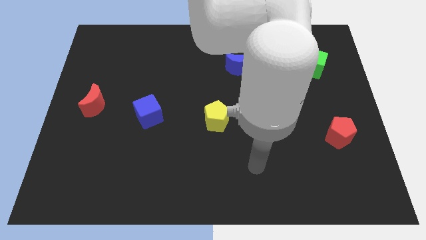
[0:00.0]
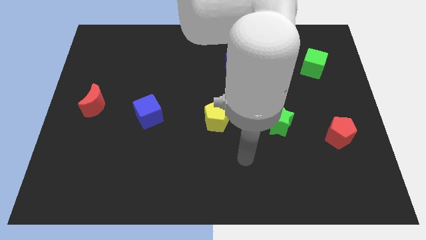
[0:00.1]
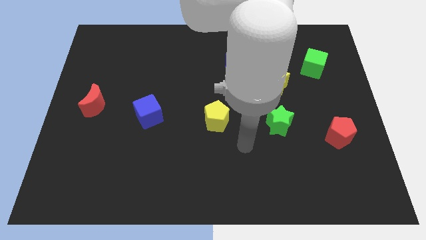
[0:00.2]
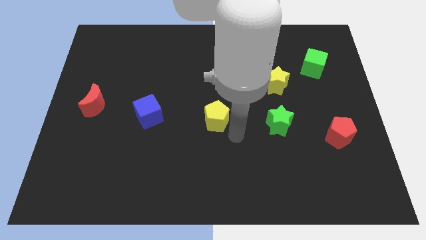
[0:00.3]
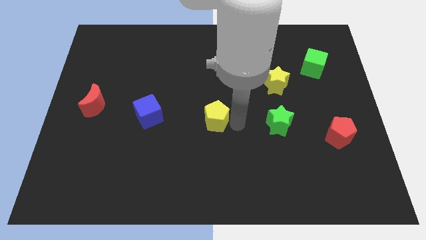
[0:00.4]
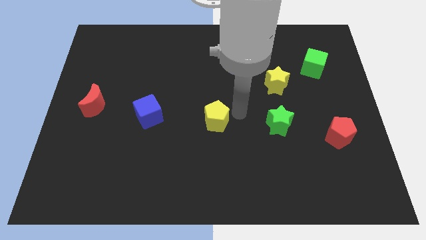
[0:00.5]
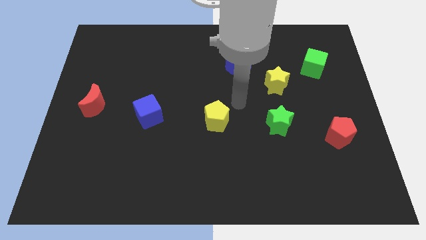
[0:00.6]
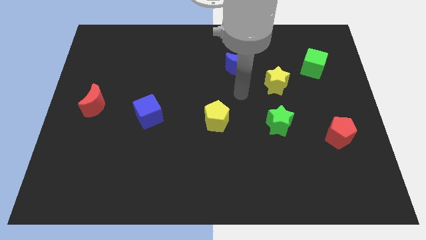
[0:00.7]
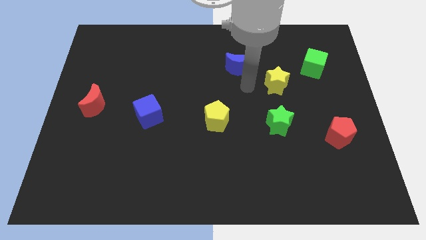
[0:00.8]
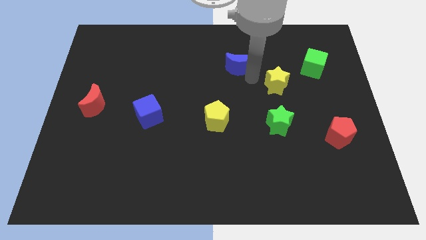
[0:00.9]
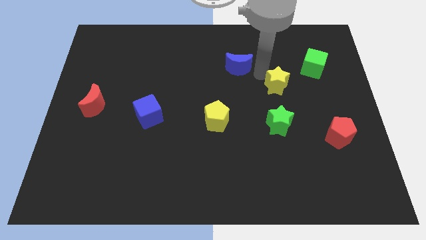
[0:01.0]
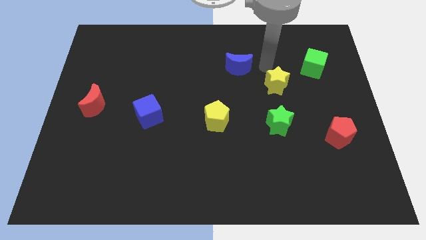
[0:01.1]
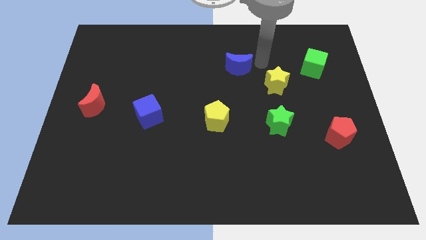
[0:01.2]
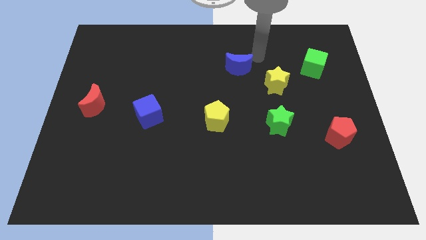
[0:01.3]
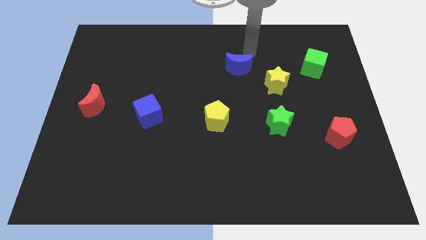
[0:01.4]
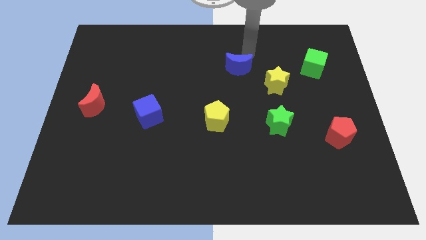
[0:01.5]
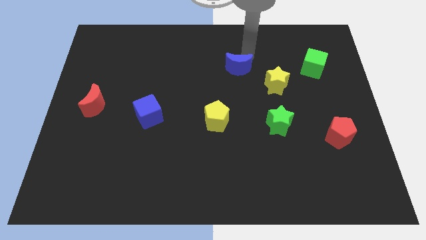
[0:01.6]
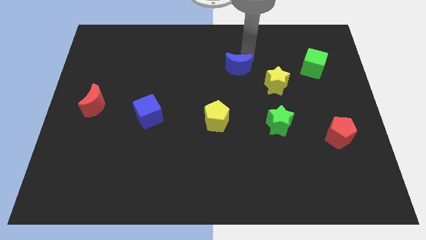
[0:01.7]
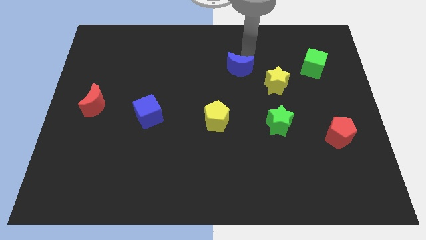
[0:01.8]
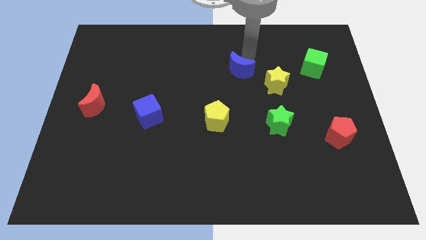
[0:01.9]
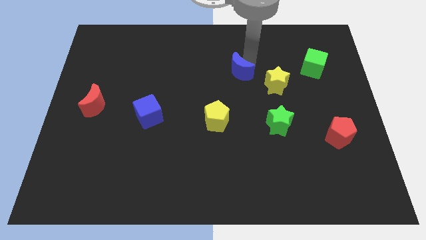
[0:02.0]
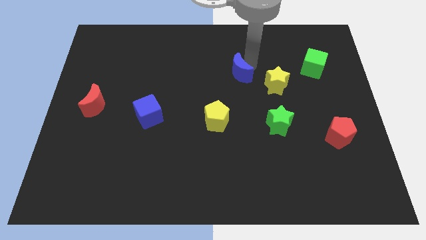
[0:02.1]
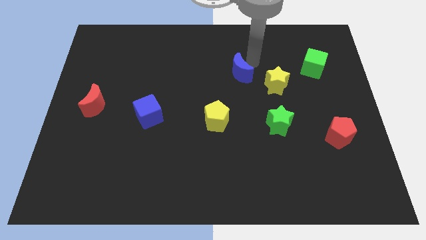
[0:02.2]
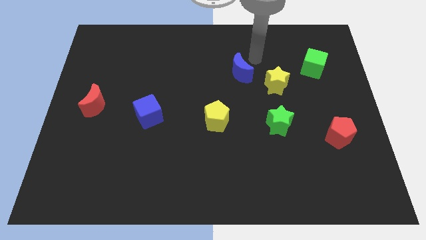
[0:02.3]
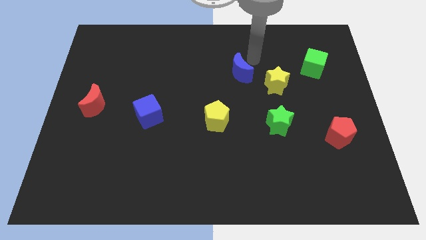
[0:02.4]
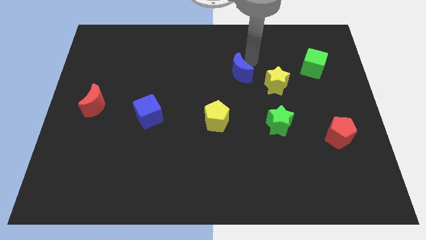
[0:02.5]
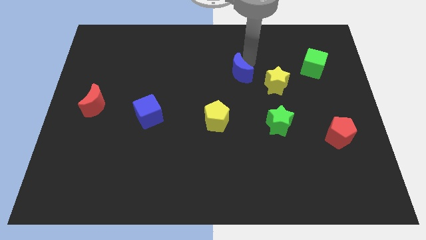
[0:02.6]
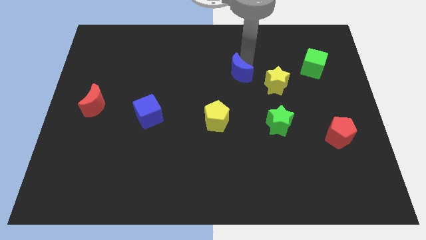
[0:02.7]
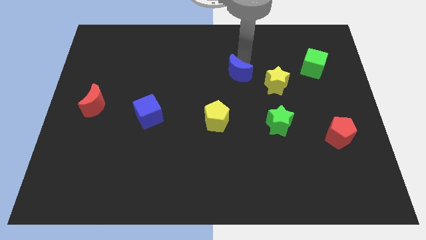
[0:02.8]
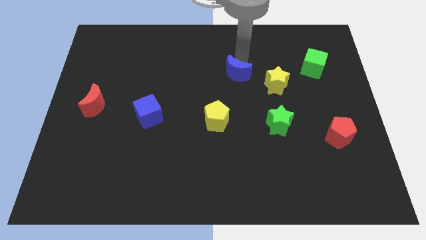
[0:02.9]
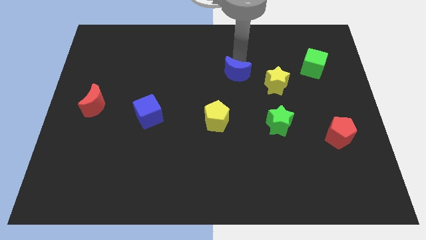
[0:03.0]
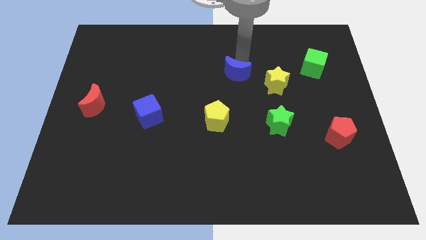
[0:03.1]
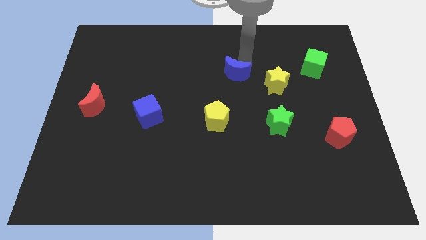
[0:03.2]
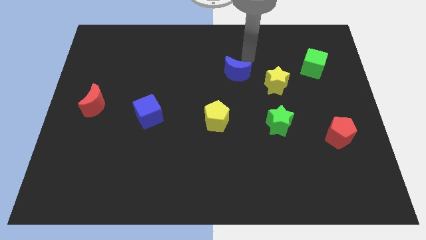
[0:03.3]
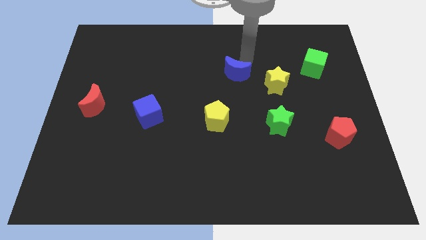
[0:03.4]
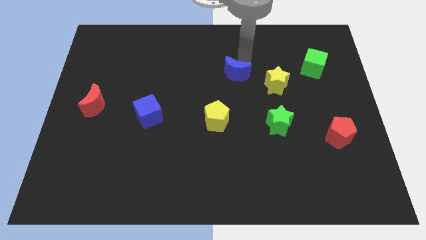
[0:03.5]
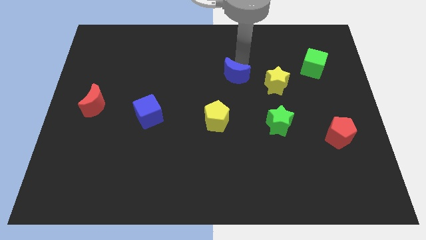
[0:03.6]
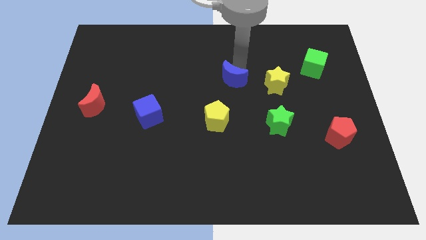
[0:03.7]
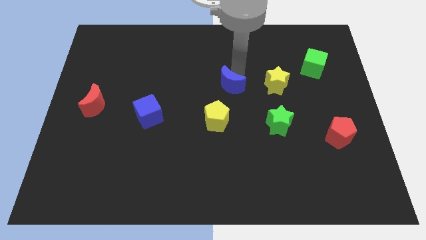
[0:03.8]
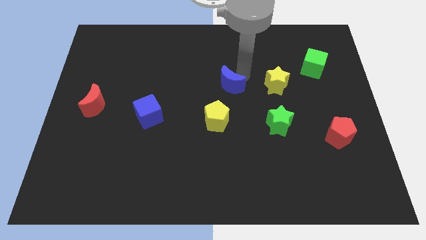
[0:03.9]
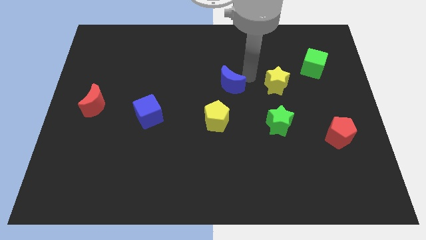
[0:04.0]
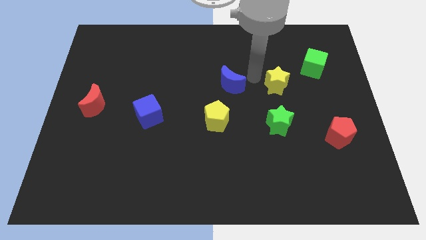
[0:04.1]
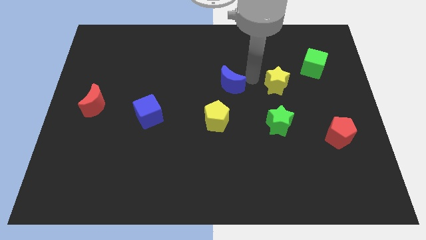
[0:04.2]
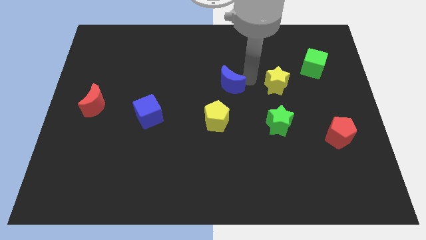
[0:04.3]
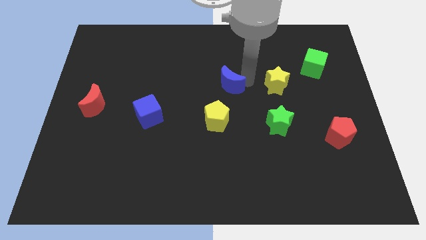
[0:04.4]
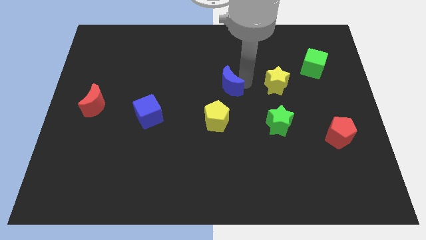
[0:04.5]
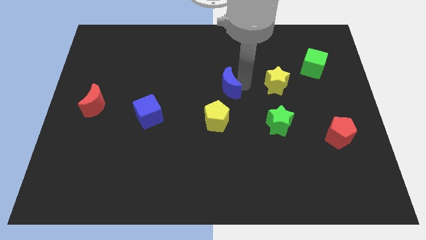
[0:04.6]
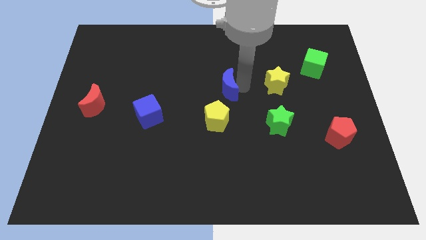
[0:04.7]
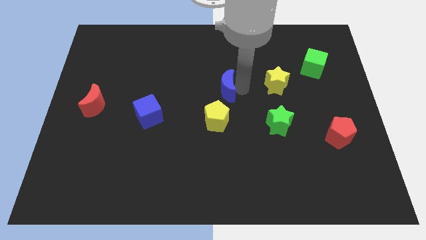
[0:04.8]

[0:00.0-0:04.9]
push the blue moon downwards and to the left a little

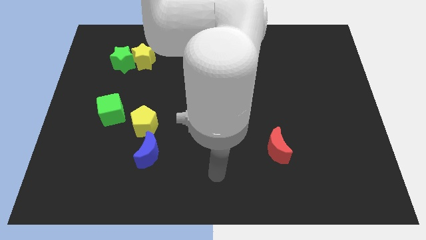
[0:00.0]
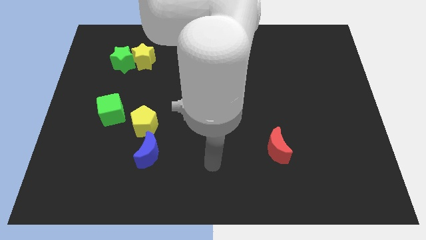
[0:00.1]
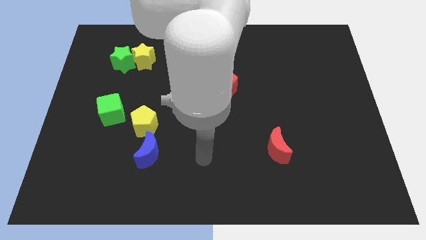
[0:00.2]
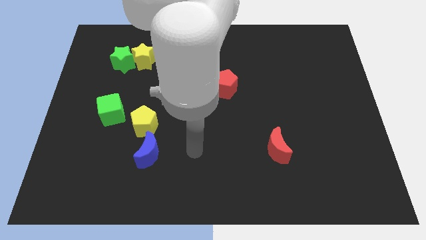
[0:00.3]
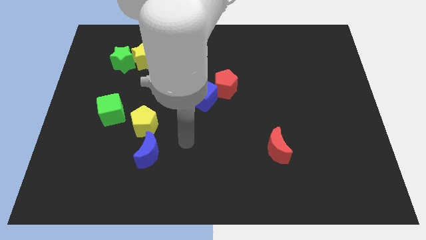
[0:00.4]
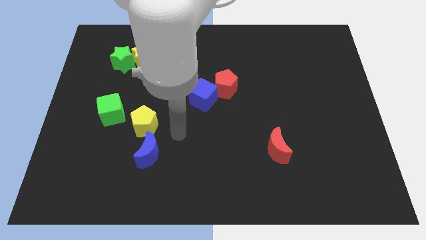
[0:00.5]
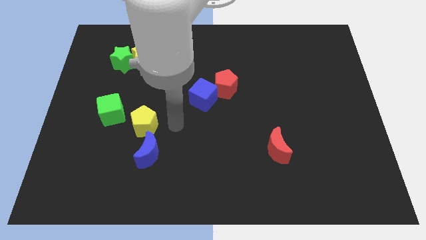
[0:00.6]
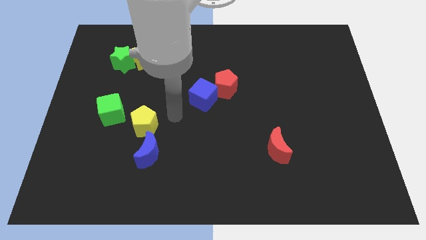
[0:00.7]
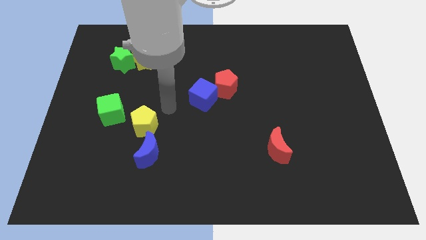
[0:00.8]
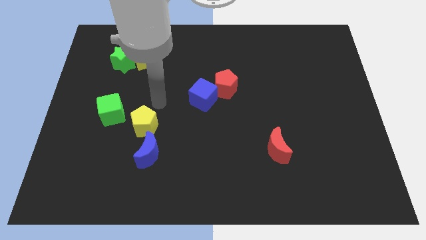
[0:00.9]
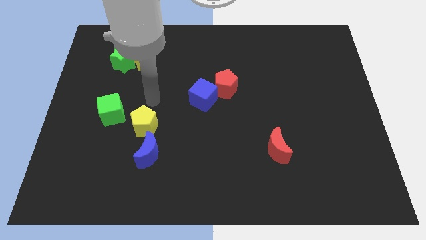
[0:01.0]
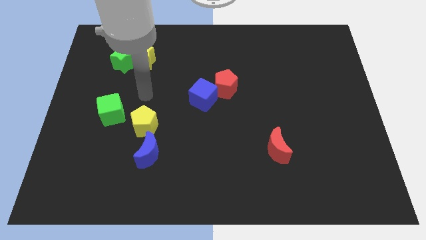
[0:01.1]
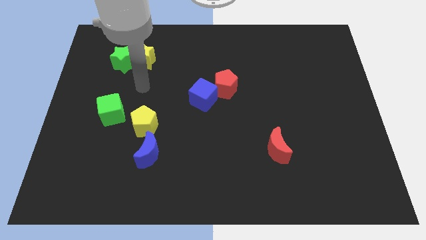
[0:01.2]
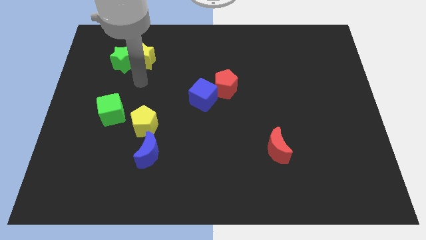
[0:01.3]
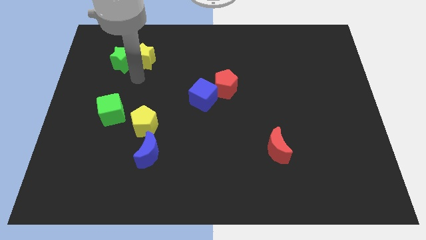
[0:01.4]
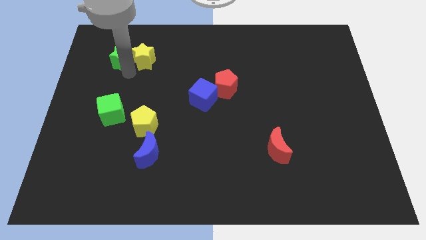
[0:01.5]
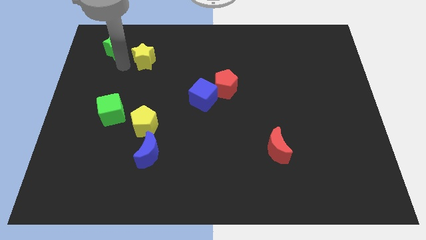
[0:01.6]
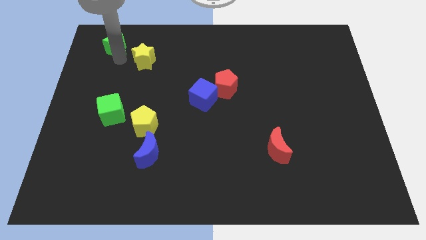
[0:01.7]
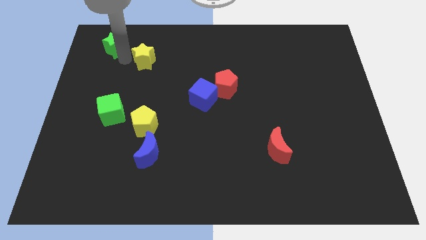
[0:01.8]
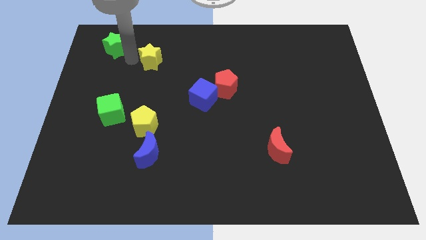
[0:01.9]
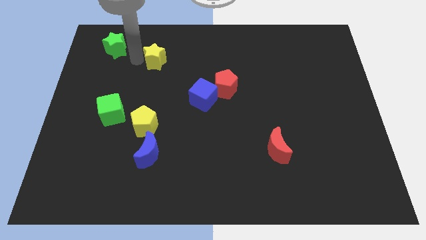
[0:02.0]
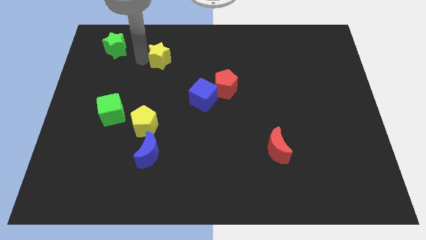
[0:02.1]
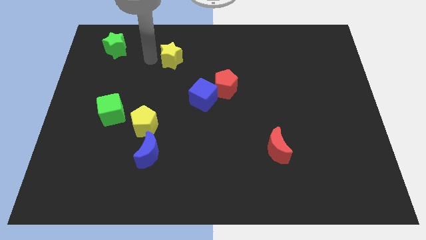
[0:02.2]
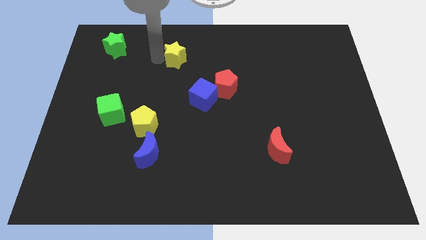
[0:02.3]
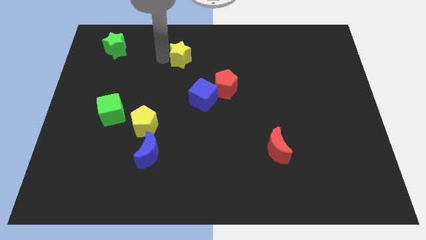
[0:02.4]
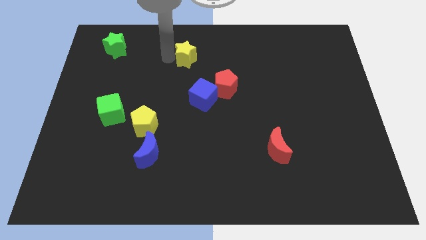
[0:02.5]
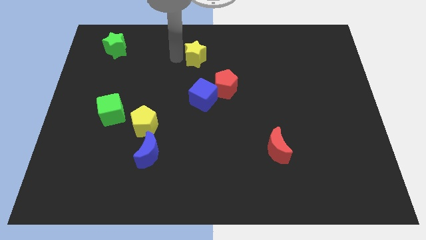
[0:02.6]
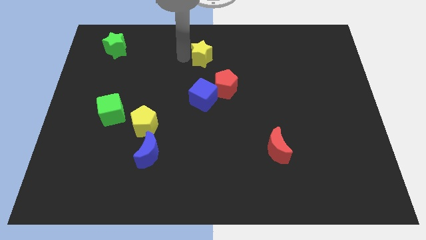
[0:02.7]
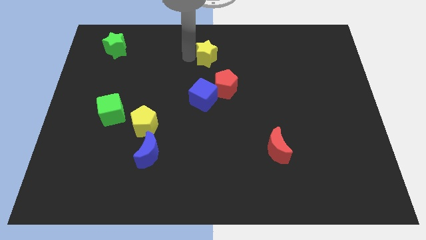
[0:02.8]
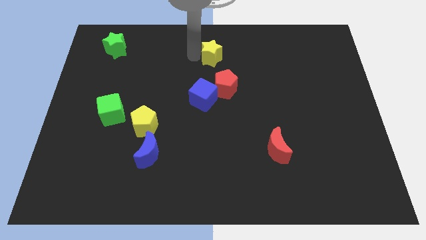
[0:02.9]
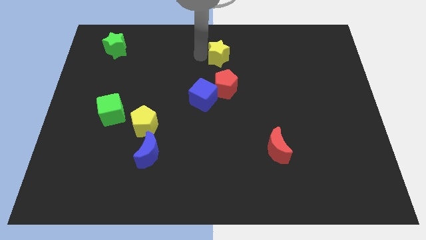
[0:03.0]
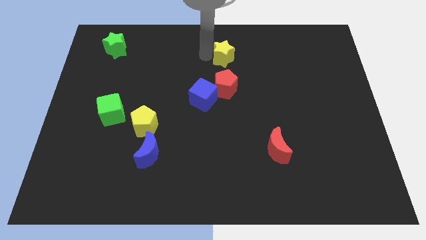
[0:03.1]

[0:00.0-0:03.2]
move the yellow star right
